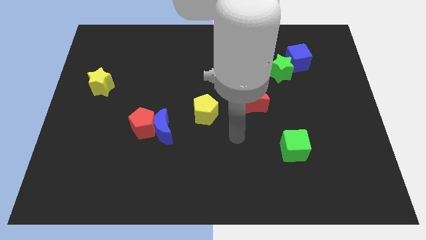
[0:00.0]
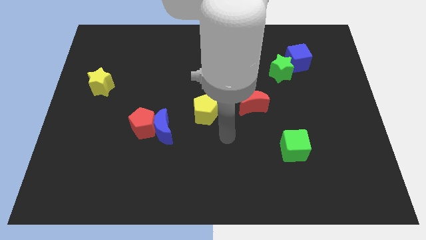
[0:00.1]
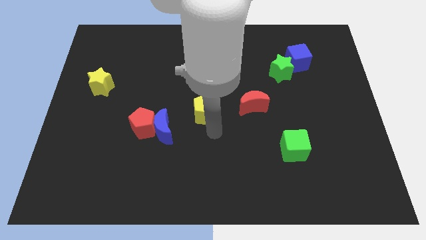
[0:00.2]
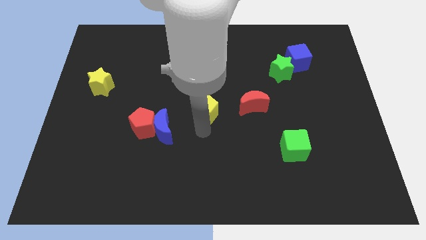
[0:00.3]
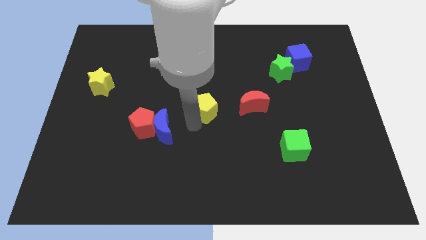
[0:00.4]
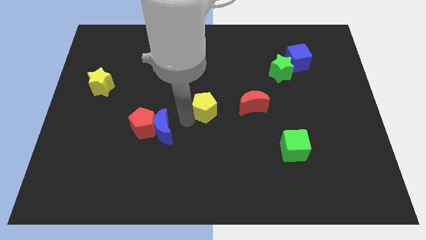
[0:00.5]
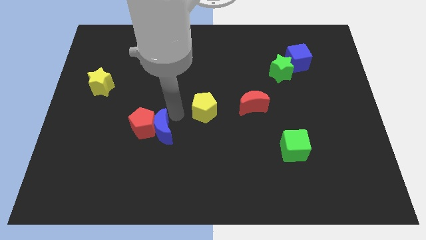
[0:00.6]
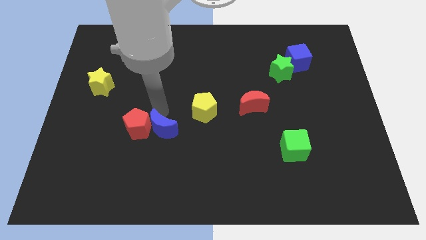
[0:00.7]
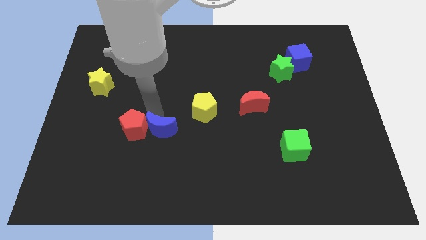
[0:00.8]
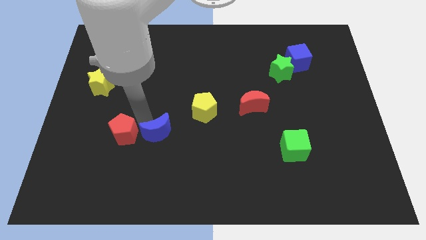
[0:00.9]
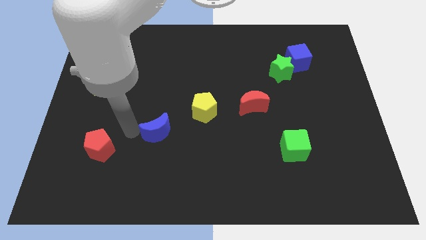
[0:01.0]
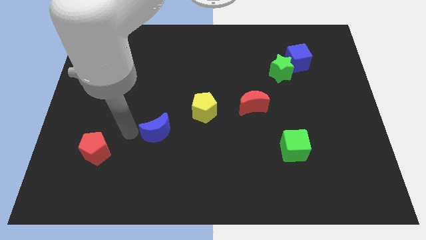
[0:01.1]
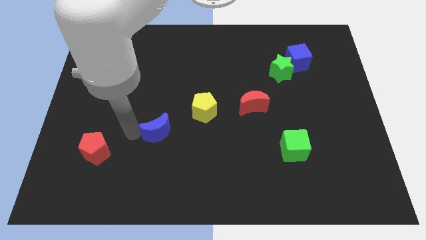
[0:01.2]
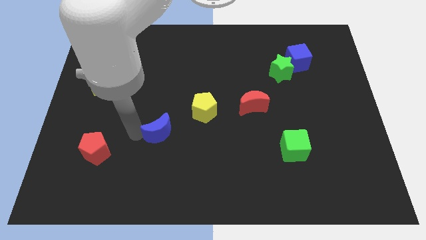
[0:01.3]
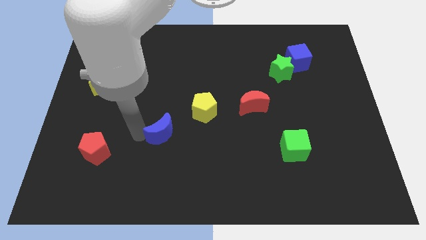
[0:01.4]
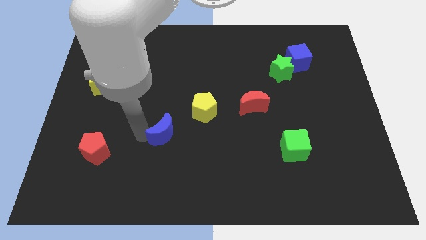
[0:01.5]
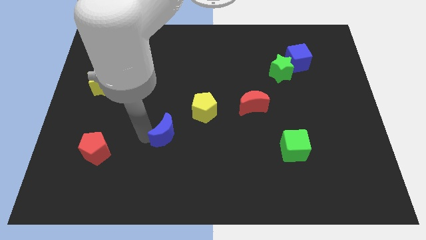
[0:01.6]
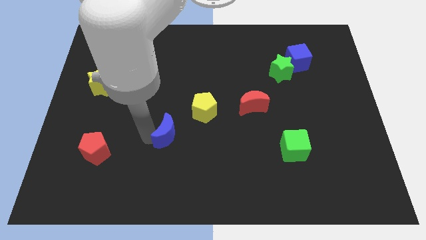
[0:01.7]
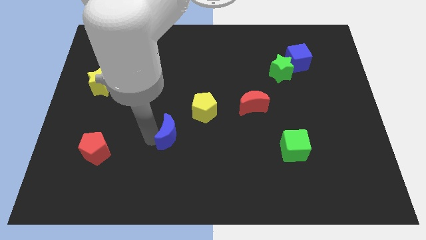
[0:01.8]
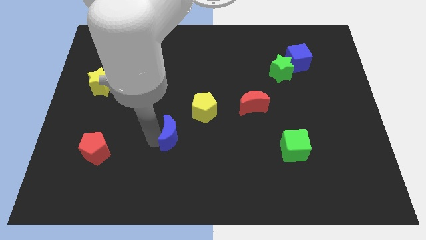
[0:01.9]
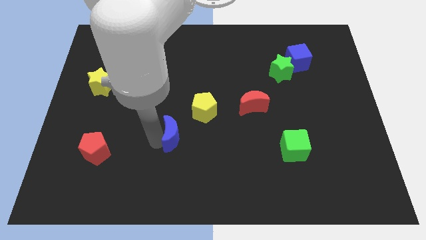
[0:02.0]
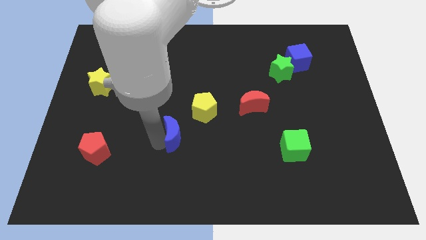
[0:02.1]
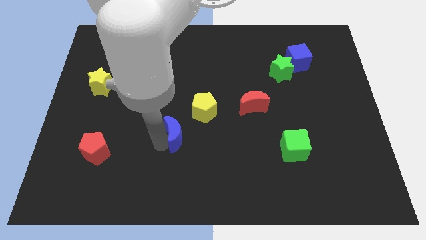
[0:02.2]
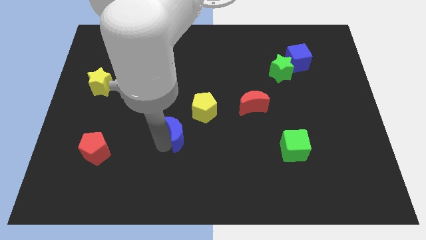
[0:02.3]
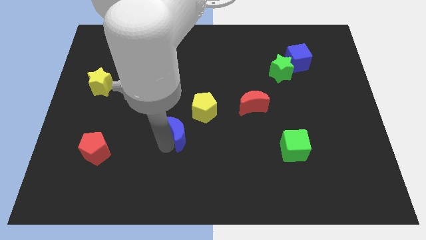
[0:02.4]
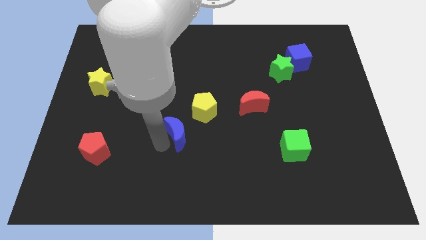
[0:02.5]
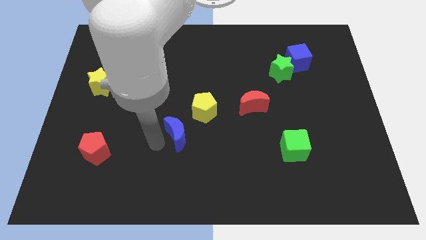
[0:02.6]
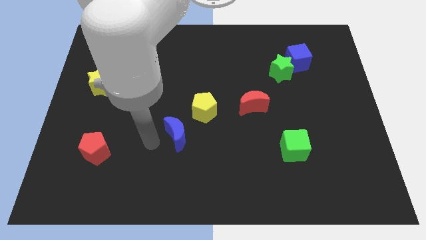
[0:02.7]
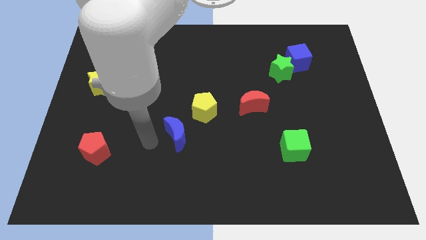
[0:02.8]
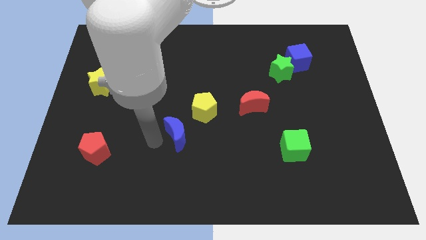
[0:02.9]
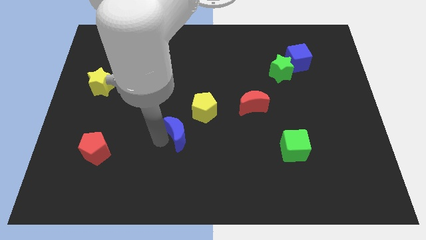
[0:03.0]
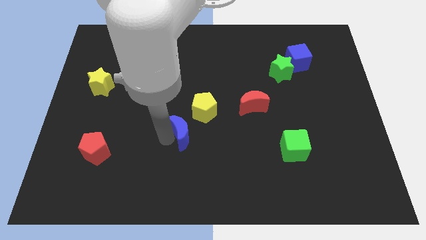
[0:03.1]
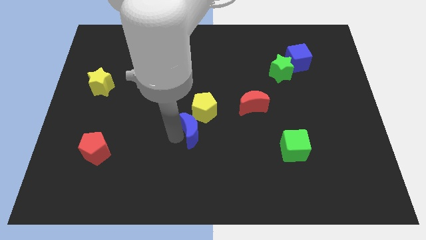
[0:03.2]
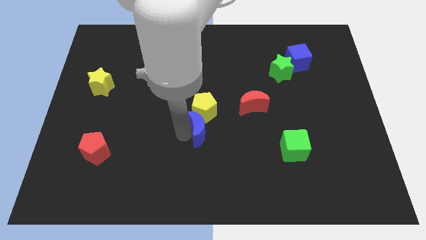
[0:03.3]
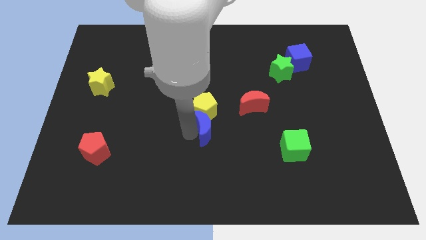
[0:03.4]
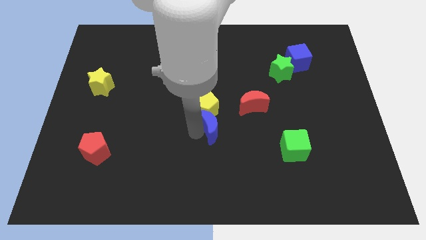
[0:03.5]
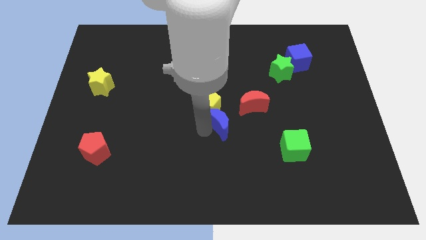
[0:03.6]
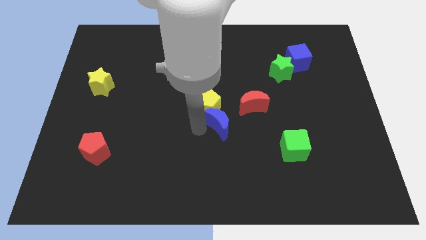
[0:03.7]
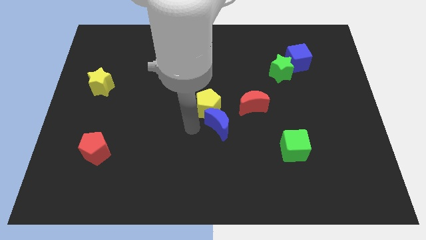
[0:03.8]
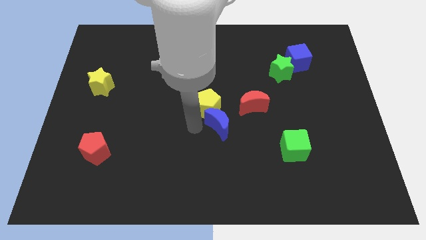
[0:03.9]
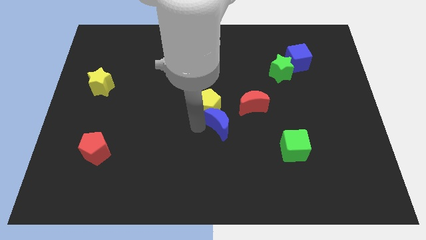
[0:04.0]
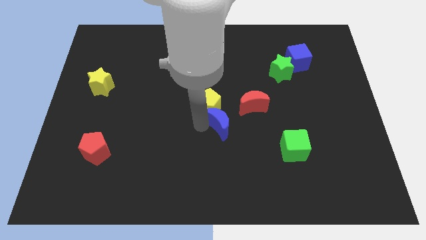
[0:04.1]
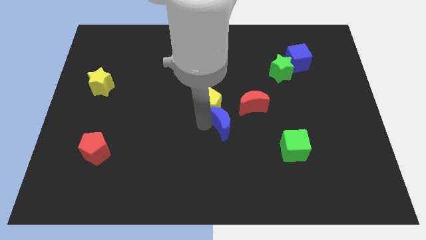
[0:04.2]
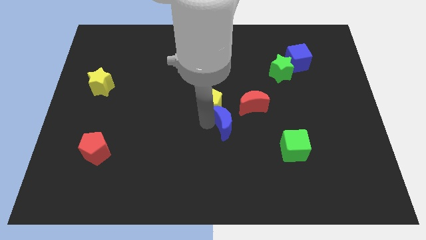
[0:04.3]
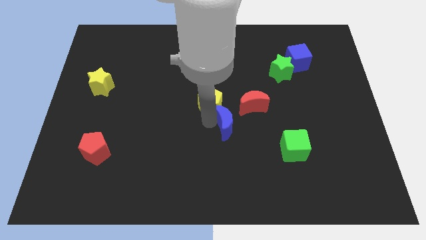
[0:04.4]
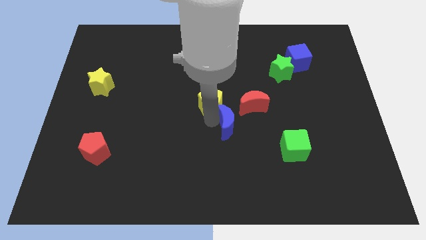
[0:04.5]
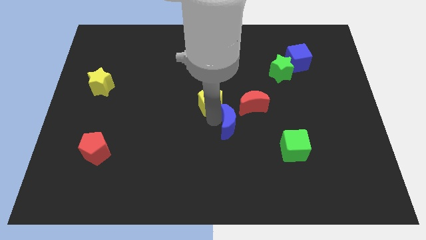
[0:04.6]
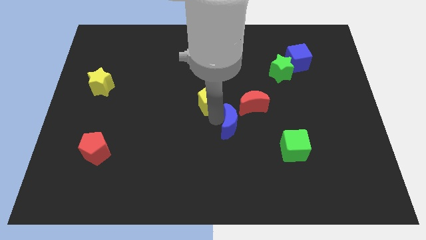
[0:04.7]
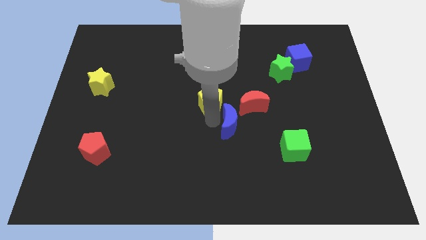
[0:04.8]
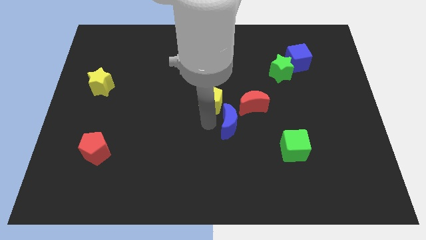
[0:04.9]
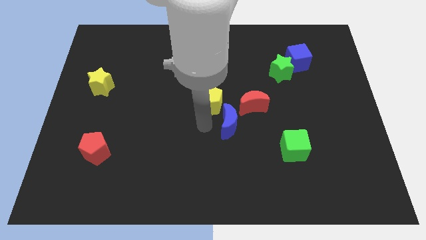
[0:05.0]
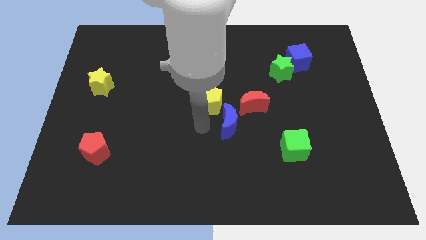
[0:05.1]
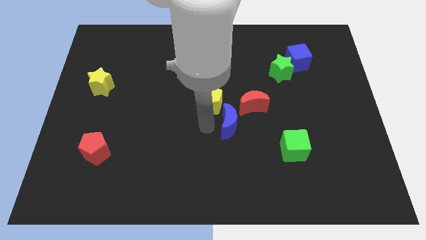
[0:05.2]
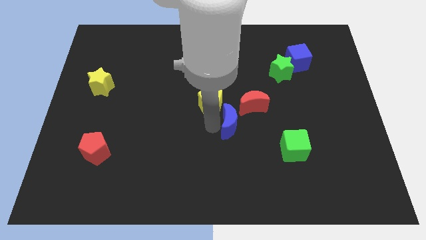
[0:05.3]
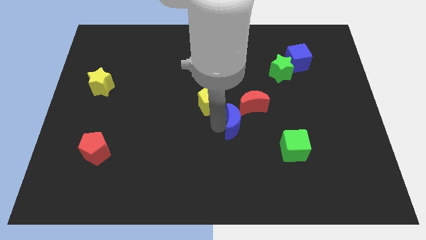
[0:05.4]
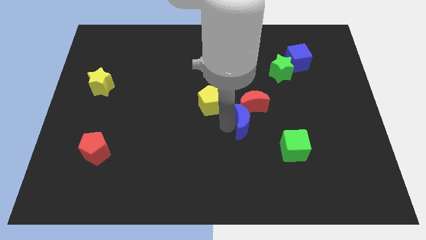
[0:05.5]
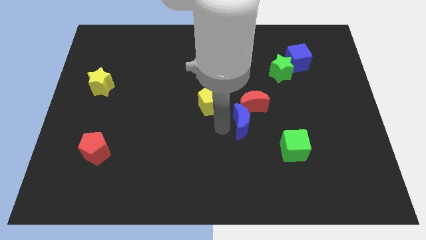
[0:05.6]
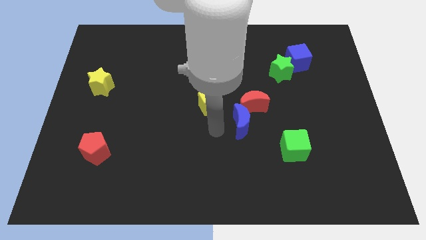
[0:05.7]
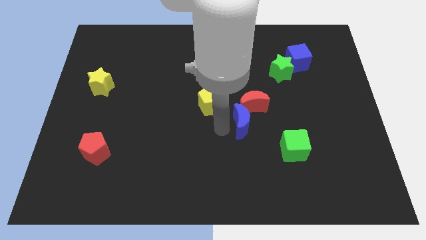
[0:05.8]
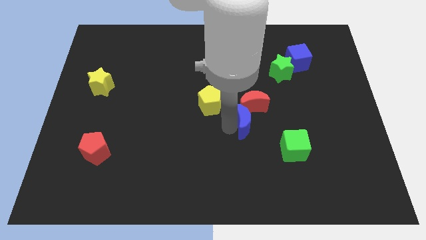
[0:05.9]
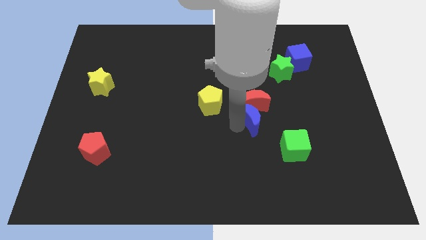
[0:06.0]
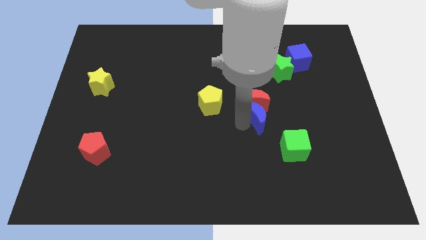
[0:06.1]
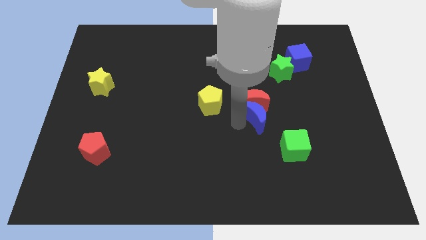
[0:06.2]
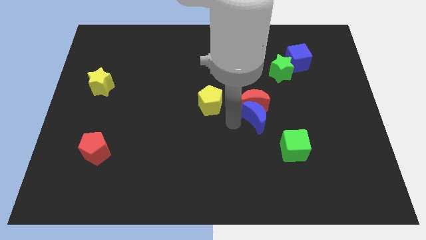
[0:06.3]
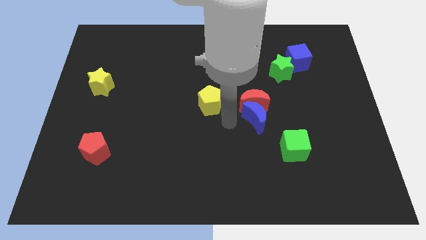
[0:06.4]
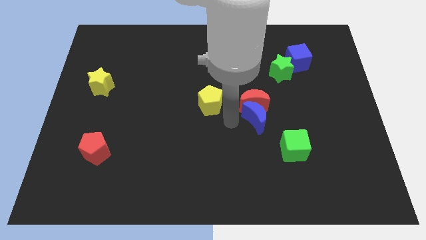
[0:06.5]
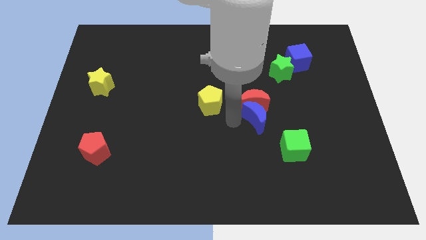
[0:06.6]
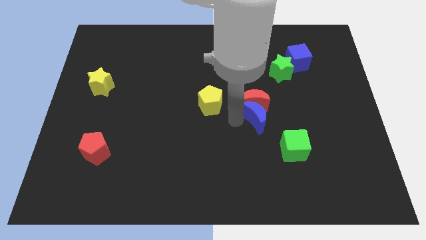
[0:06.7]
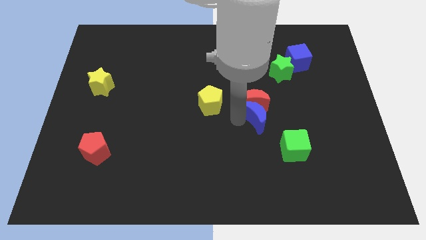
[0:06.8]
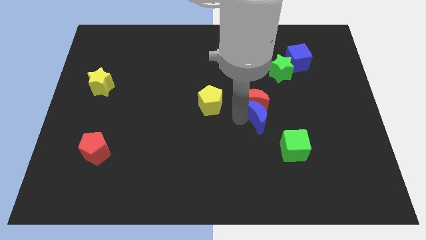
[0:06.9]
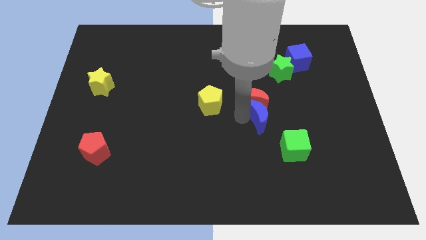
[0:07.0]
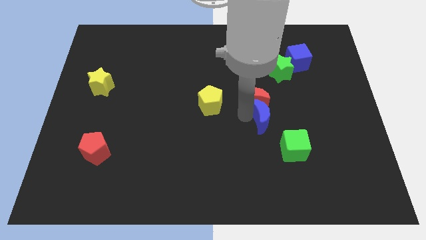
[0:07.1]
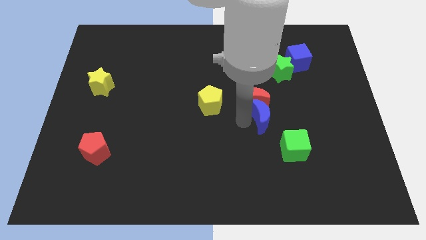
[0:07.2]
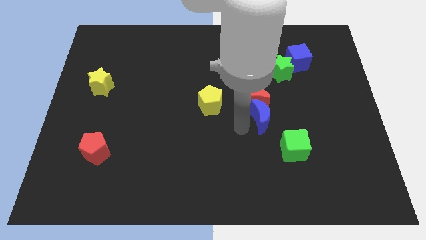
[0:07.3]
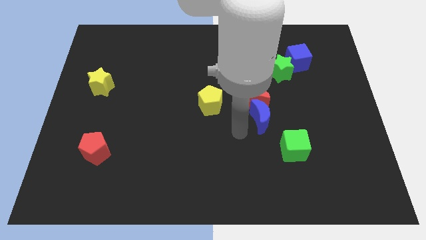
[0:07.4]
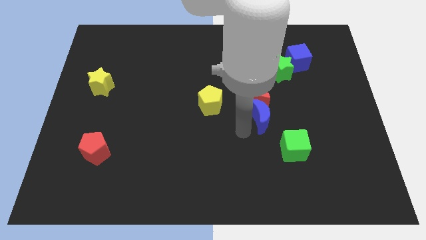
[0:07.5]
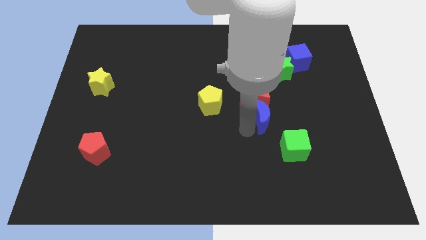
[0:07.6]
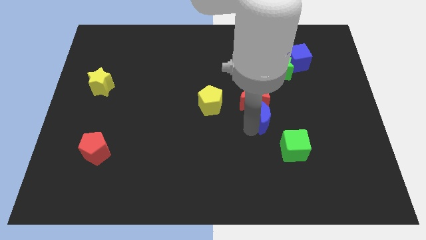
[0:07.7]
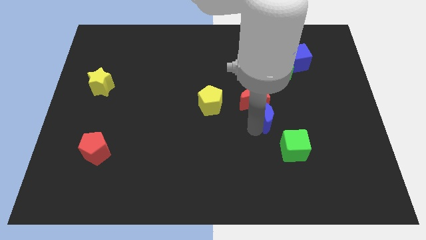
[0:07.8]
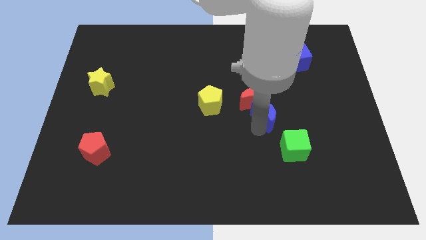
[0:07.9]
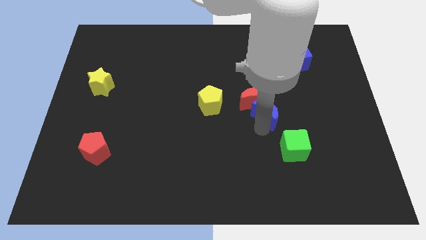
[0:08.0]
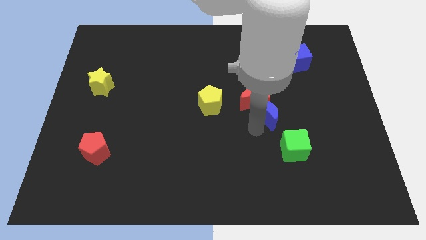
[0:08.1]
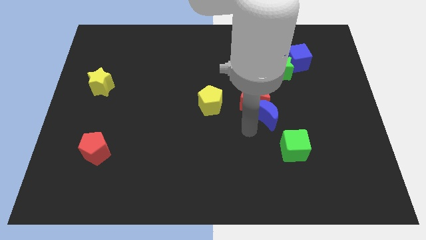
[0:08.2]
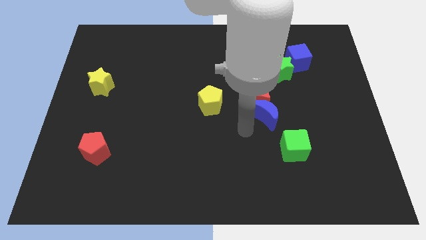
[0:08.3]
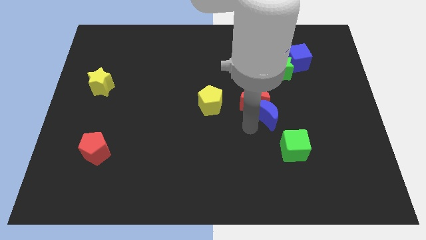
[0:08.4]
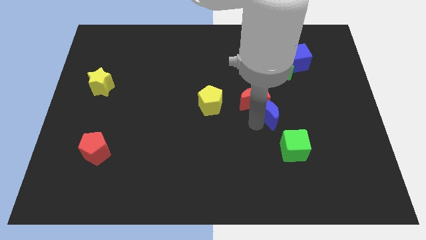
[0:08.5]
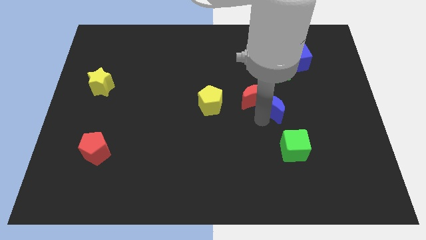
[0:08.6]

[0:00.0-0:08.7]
put the blue moon to the bottom of the green star
